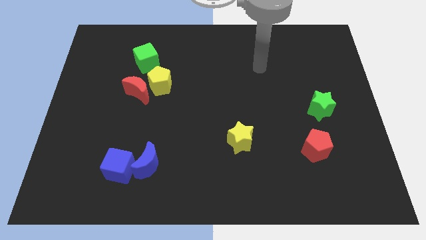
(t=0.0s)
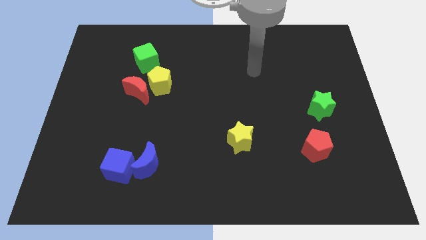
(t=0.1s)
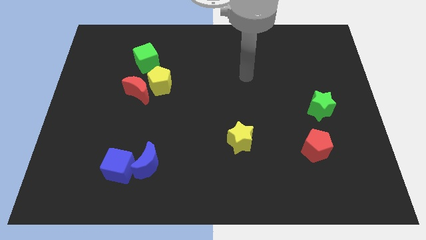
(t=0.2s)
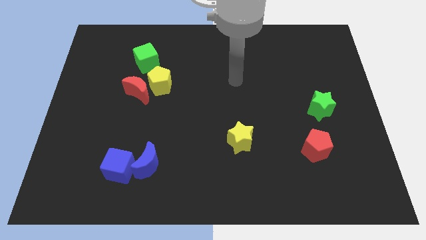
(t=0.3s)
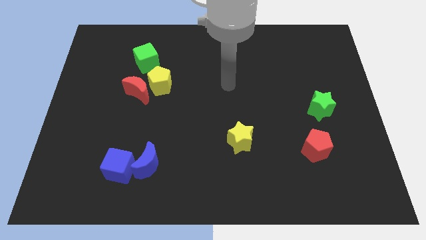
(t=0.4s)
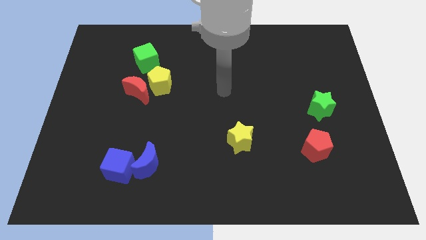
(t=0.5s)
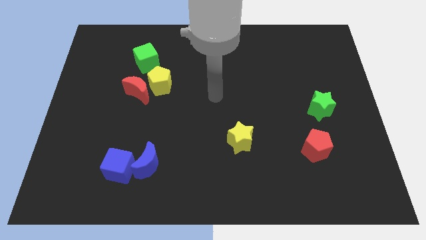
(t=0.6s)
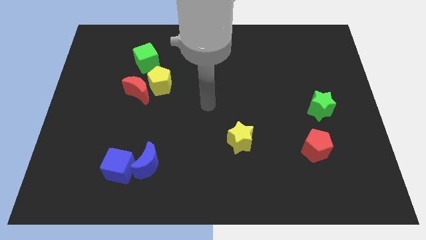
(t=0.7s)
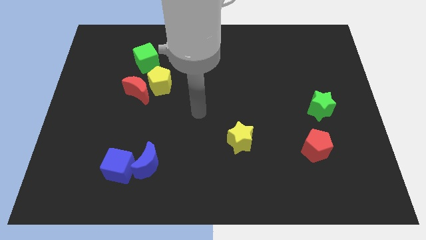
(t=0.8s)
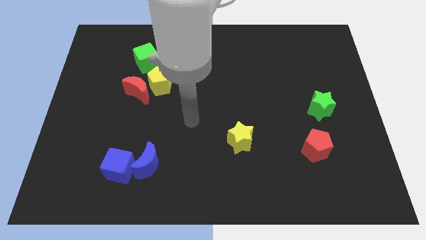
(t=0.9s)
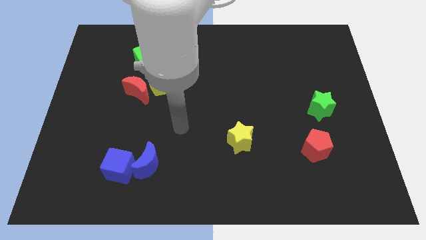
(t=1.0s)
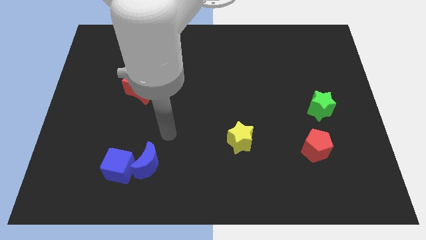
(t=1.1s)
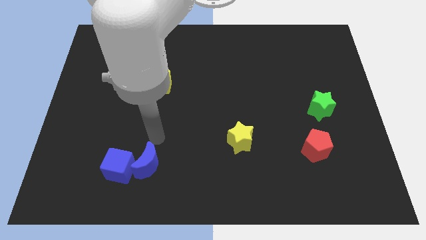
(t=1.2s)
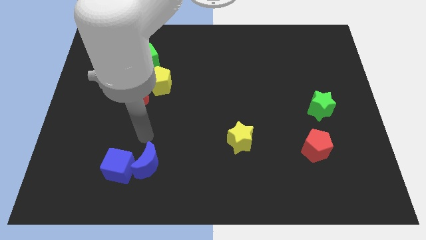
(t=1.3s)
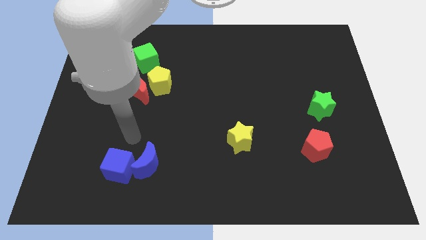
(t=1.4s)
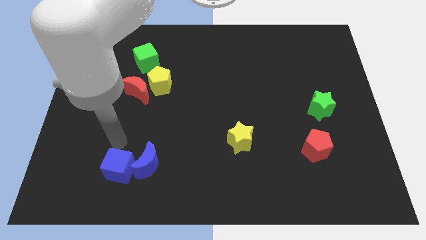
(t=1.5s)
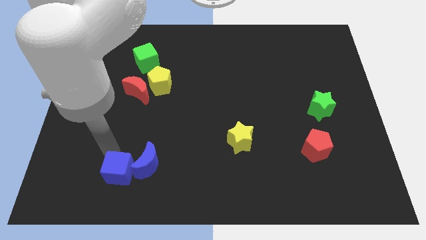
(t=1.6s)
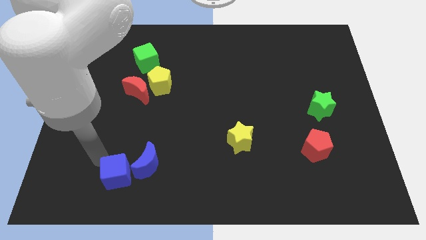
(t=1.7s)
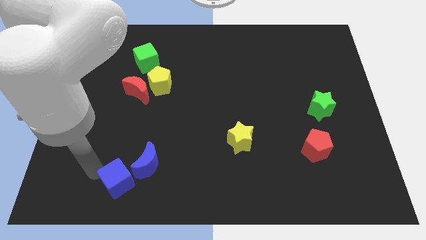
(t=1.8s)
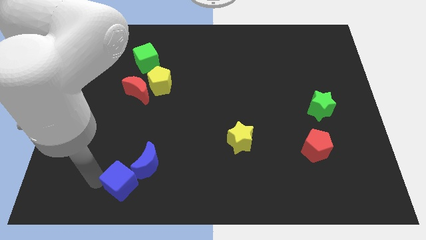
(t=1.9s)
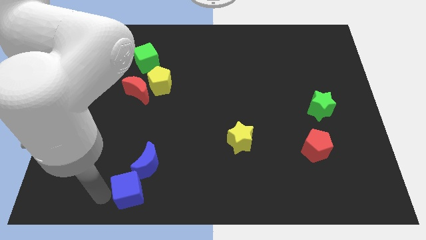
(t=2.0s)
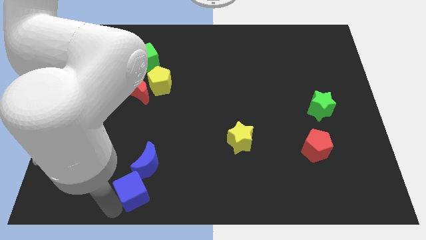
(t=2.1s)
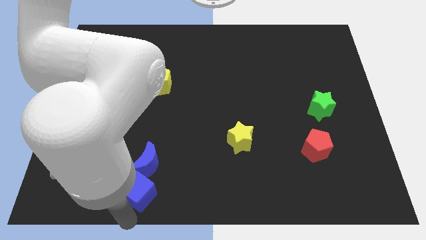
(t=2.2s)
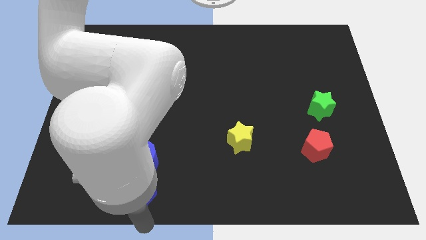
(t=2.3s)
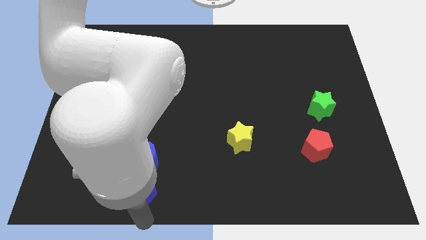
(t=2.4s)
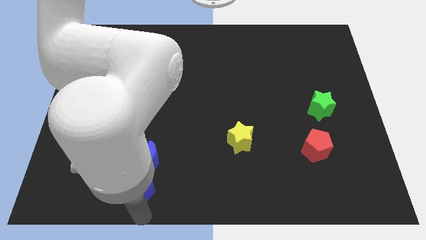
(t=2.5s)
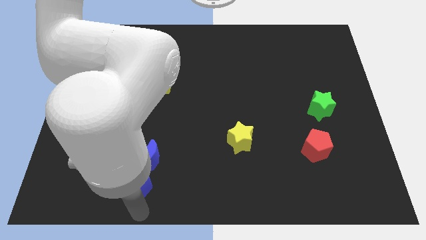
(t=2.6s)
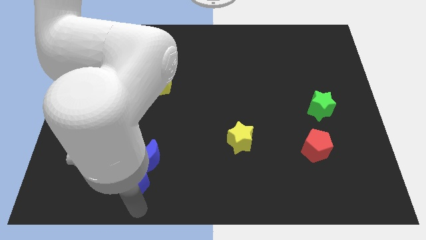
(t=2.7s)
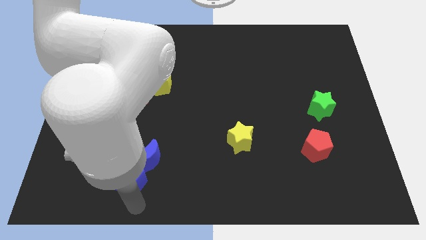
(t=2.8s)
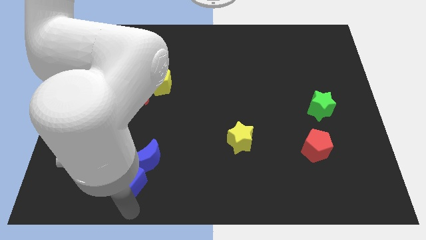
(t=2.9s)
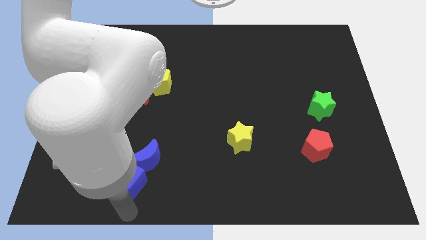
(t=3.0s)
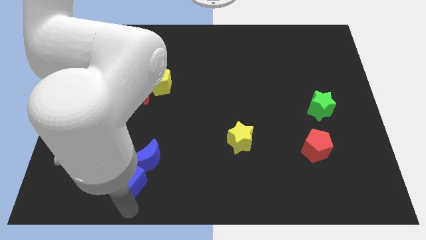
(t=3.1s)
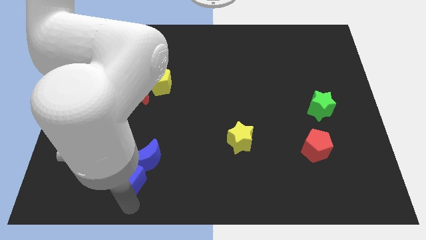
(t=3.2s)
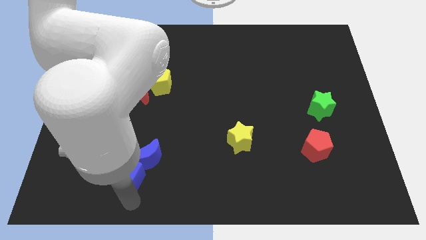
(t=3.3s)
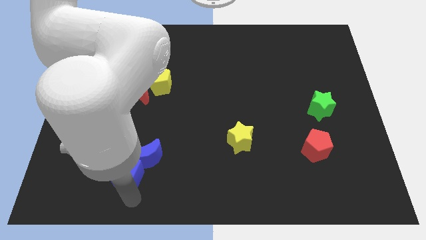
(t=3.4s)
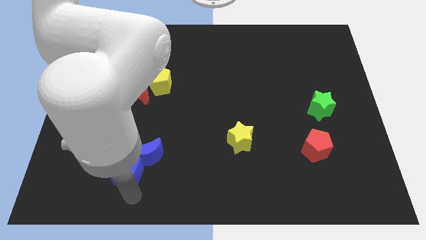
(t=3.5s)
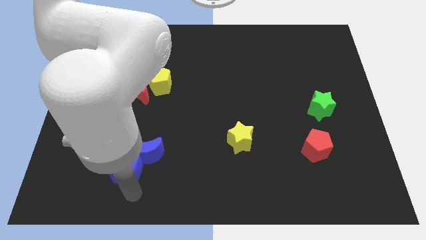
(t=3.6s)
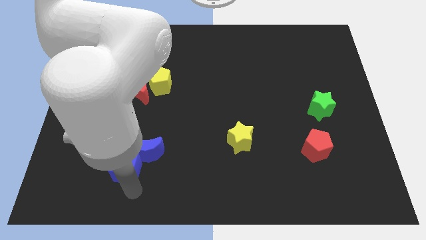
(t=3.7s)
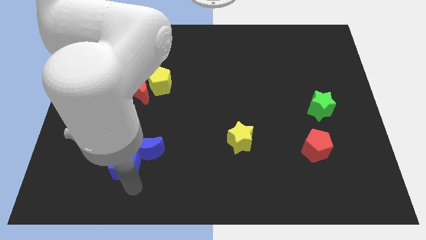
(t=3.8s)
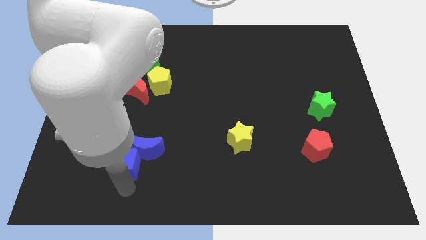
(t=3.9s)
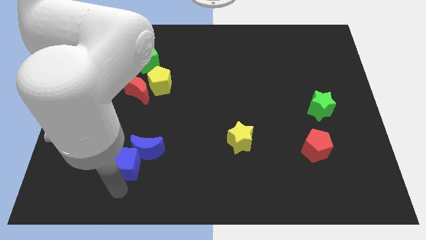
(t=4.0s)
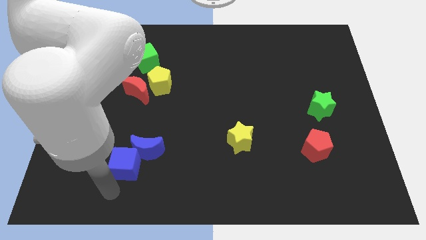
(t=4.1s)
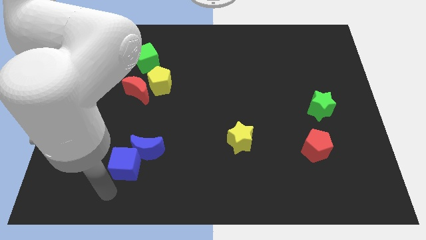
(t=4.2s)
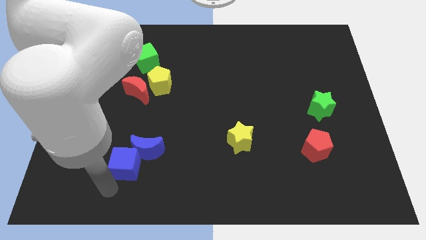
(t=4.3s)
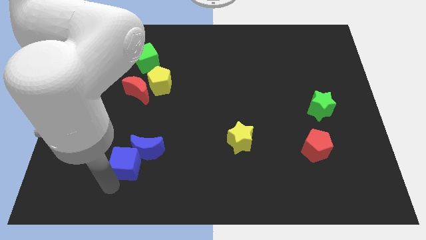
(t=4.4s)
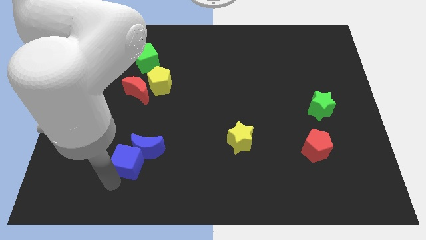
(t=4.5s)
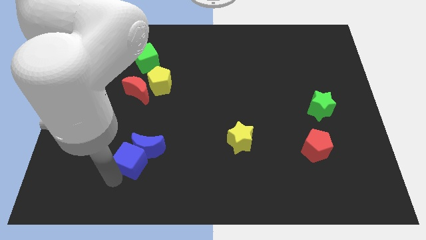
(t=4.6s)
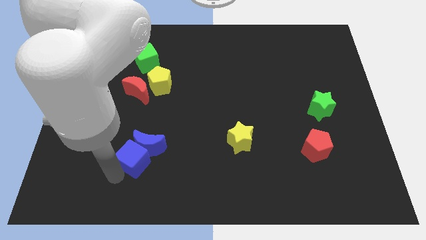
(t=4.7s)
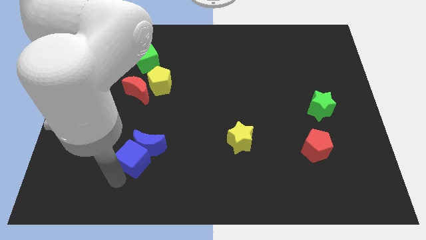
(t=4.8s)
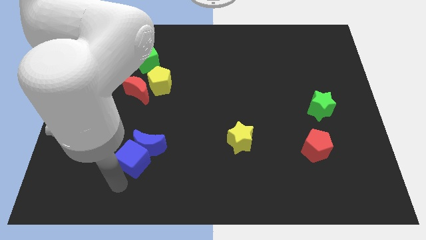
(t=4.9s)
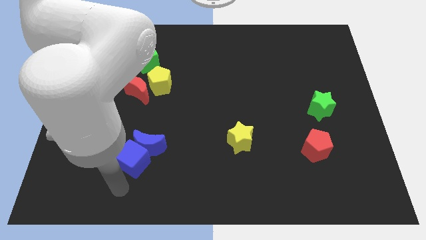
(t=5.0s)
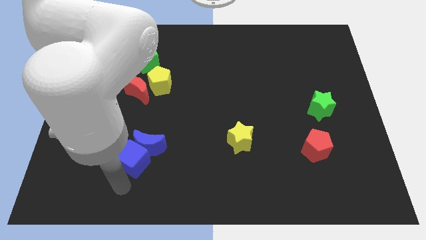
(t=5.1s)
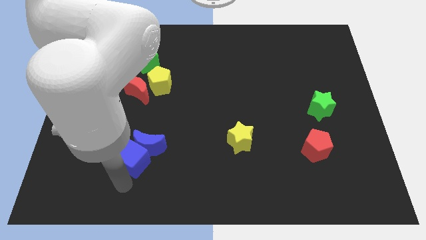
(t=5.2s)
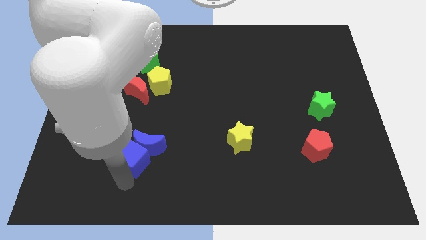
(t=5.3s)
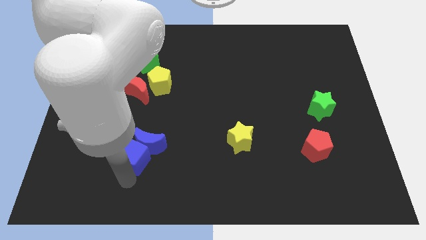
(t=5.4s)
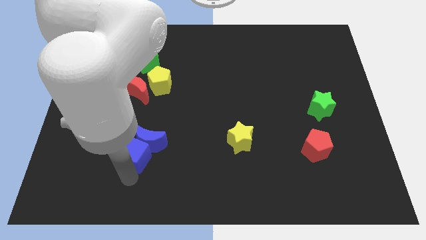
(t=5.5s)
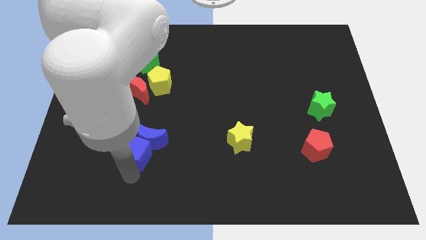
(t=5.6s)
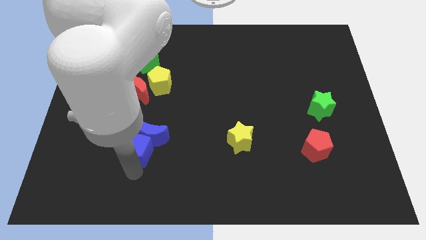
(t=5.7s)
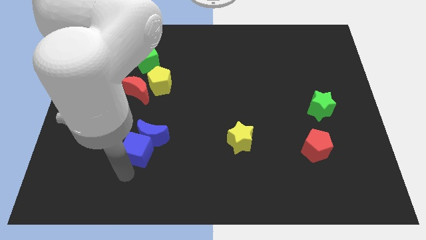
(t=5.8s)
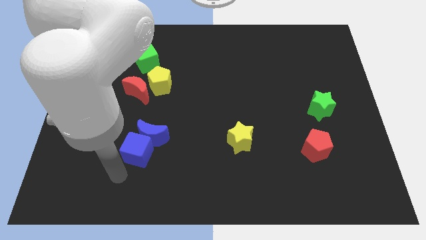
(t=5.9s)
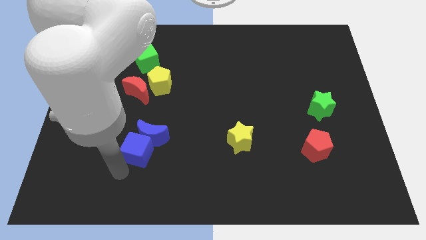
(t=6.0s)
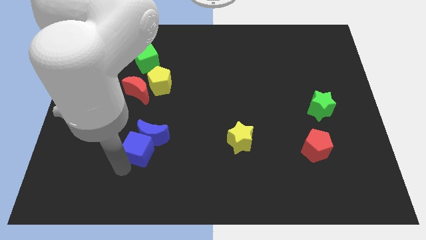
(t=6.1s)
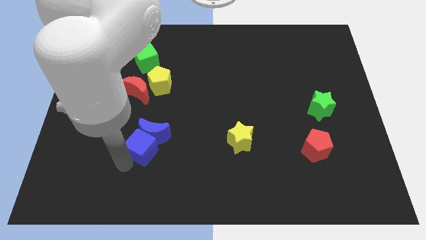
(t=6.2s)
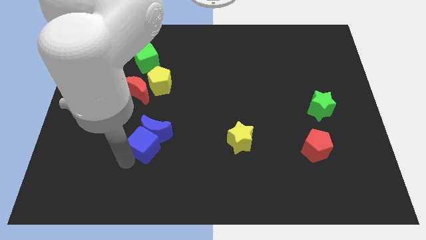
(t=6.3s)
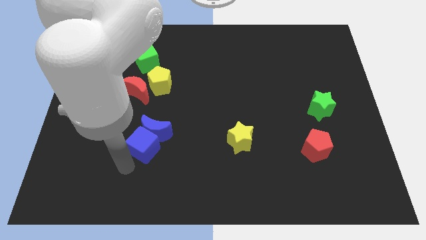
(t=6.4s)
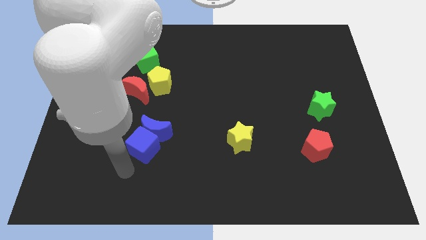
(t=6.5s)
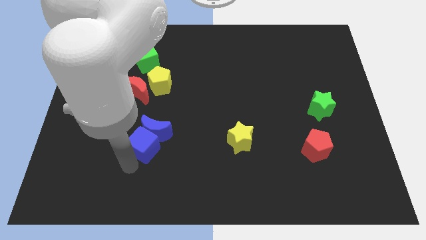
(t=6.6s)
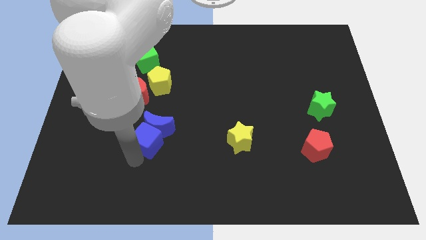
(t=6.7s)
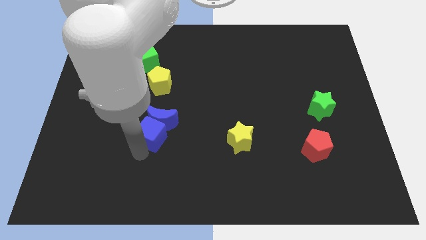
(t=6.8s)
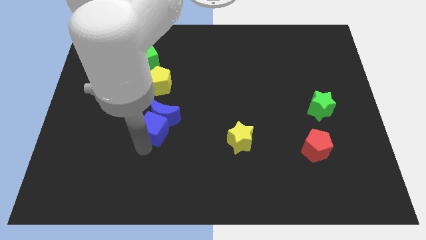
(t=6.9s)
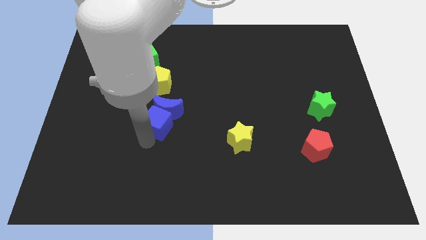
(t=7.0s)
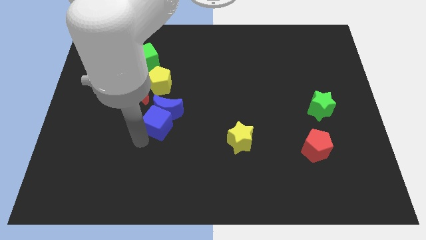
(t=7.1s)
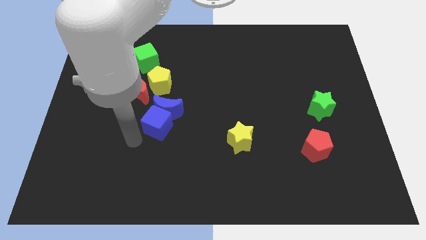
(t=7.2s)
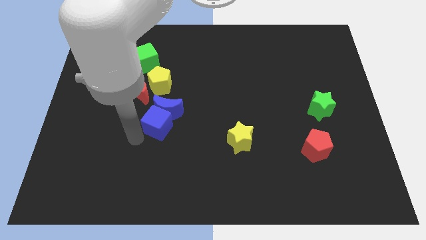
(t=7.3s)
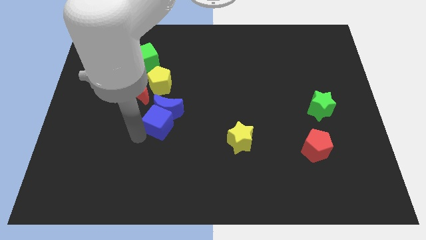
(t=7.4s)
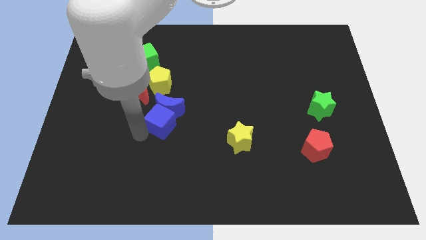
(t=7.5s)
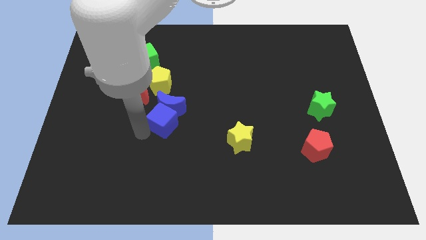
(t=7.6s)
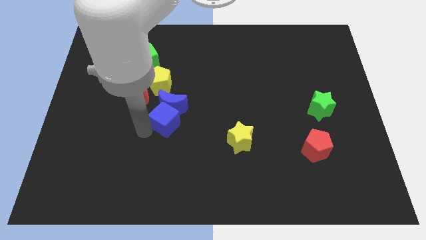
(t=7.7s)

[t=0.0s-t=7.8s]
put the blue cube to the middle of the board

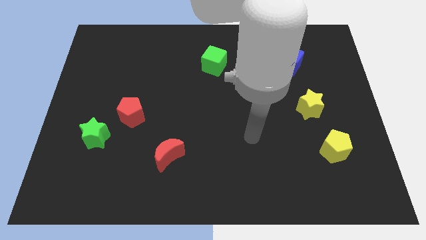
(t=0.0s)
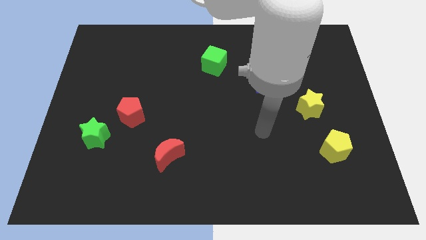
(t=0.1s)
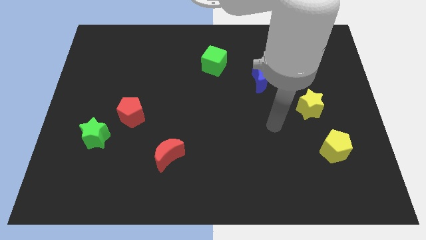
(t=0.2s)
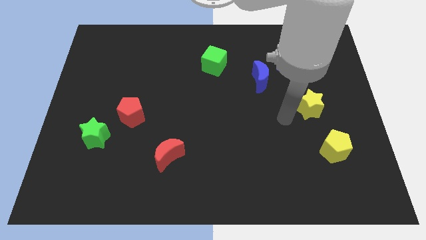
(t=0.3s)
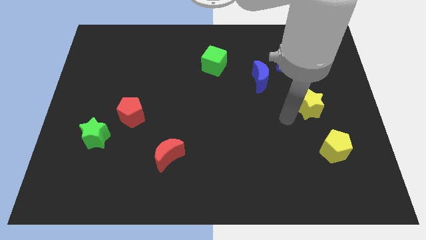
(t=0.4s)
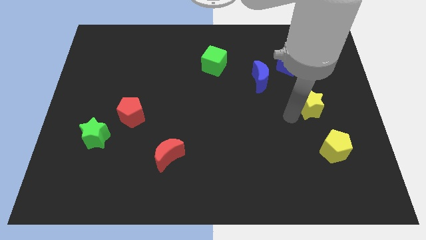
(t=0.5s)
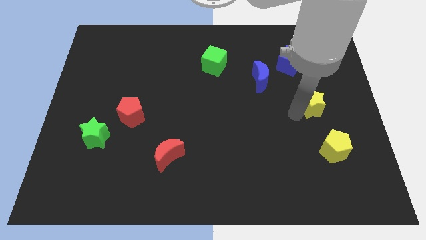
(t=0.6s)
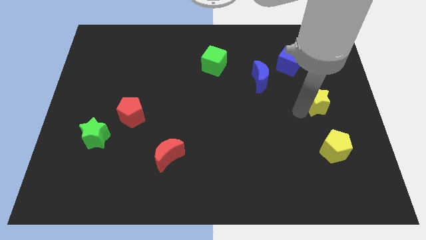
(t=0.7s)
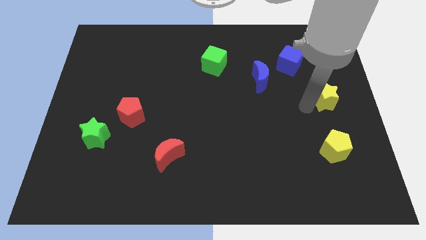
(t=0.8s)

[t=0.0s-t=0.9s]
put the yellow star to the center right
